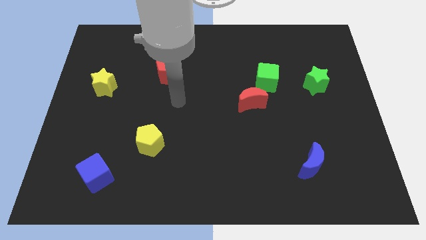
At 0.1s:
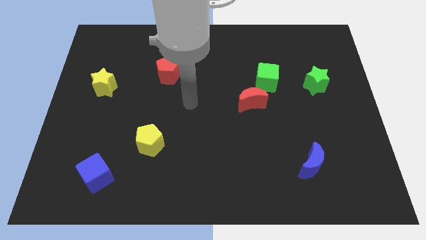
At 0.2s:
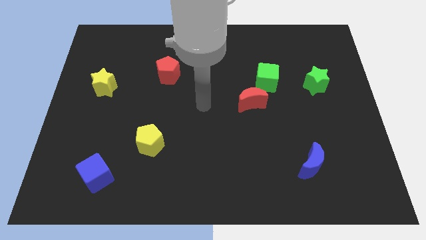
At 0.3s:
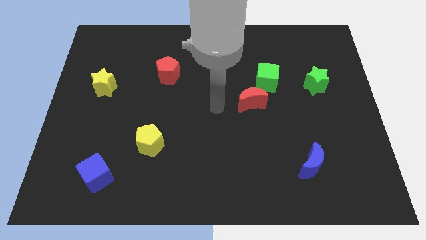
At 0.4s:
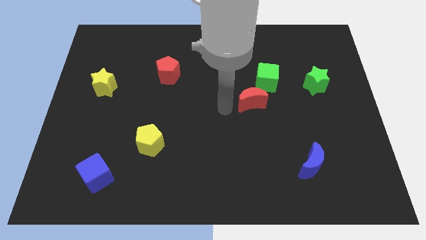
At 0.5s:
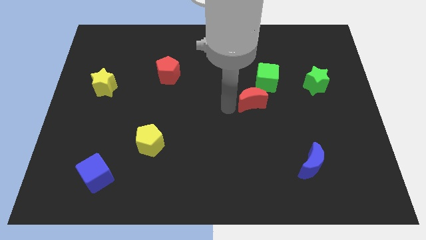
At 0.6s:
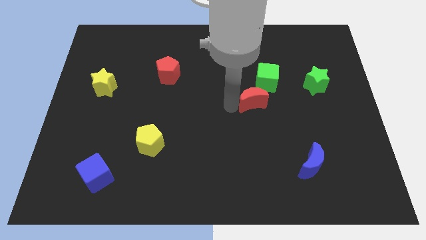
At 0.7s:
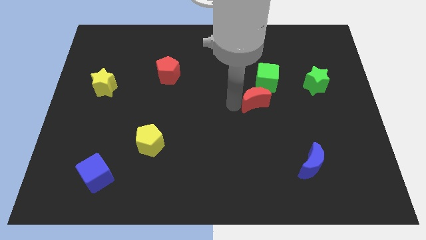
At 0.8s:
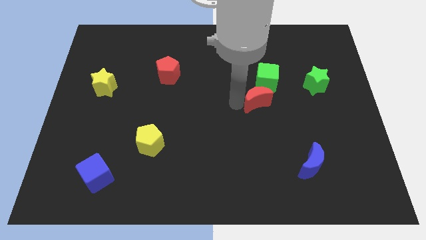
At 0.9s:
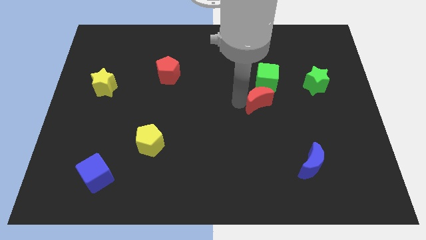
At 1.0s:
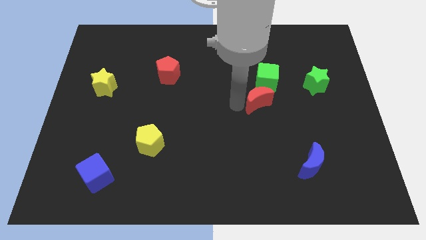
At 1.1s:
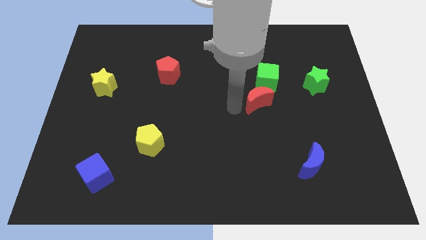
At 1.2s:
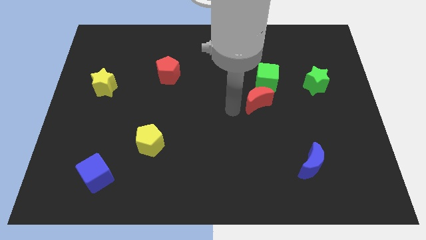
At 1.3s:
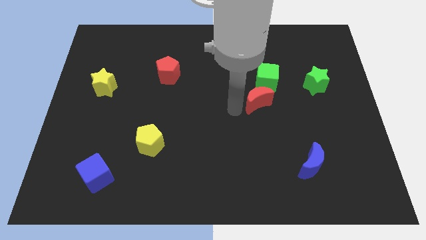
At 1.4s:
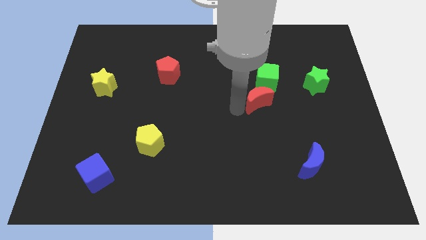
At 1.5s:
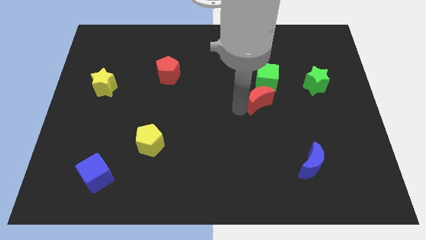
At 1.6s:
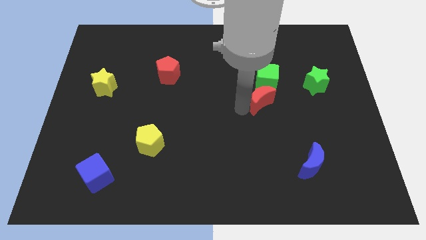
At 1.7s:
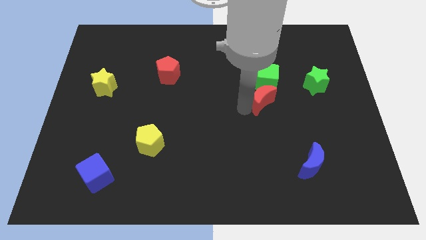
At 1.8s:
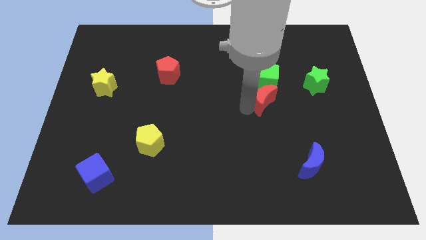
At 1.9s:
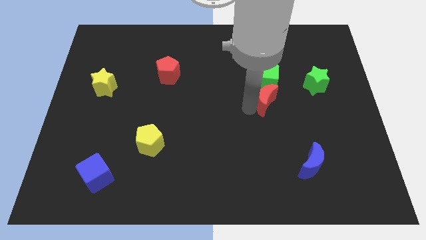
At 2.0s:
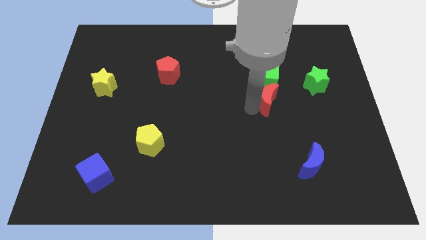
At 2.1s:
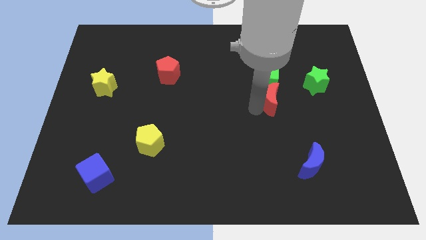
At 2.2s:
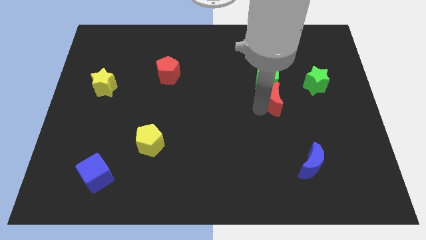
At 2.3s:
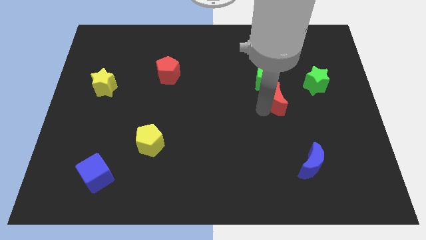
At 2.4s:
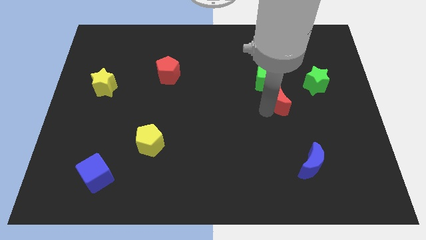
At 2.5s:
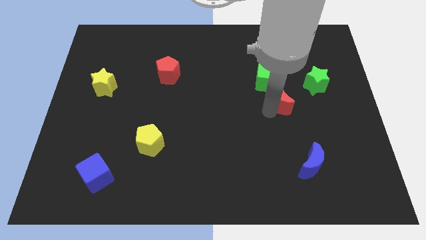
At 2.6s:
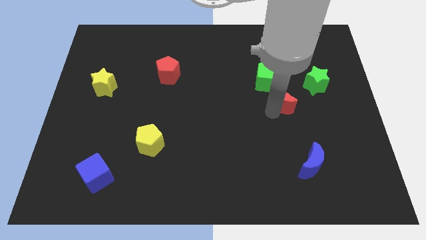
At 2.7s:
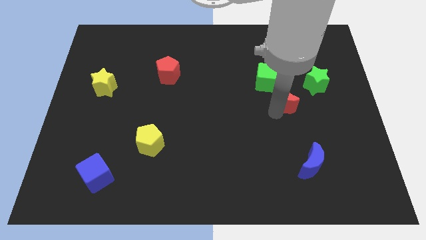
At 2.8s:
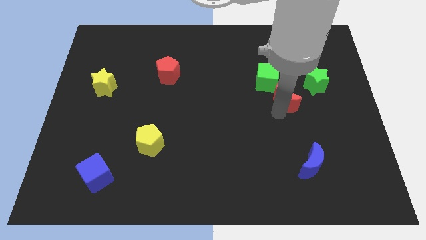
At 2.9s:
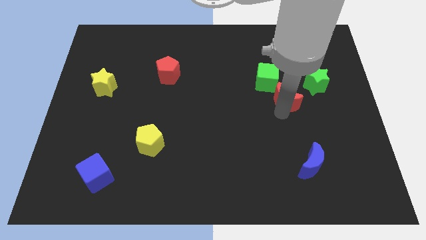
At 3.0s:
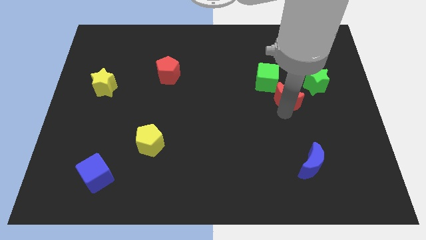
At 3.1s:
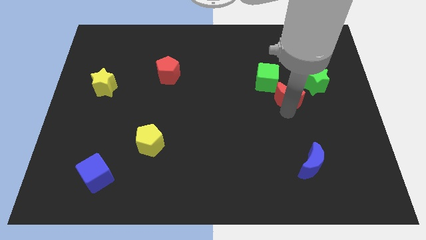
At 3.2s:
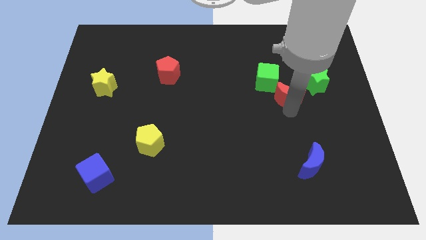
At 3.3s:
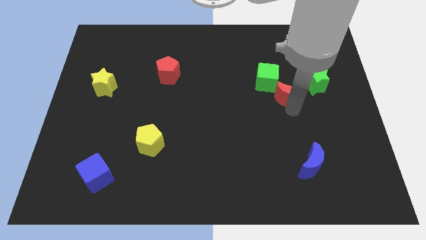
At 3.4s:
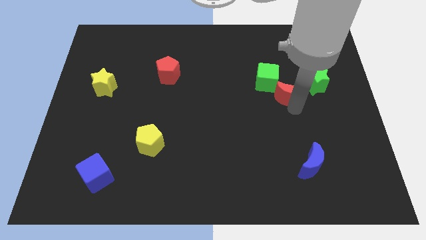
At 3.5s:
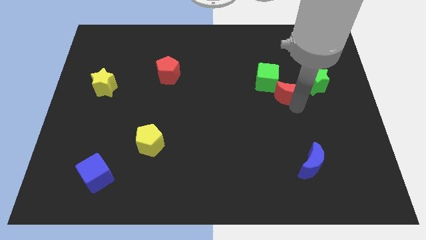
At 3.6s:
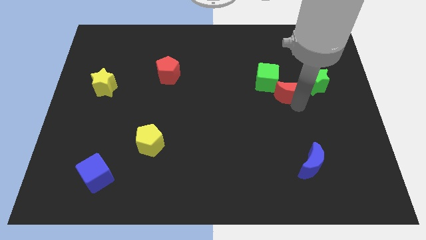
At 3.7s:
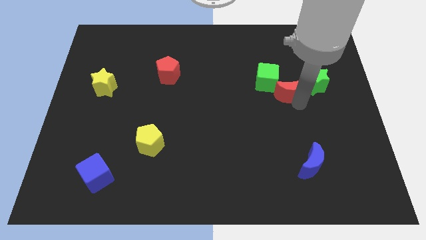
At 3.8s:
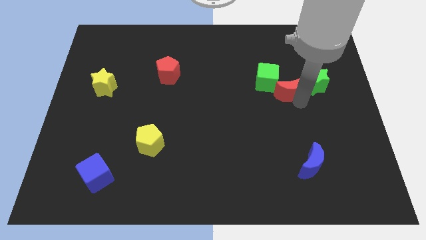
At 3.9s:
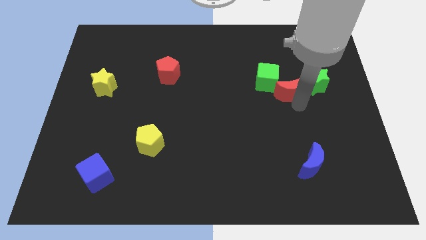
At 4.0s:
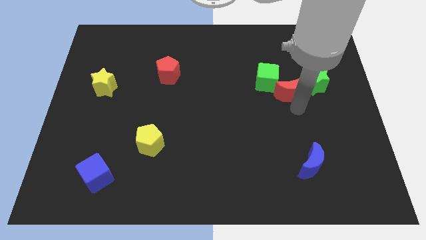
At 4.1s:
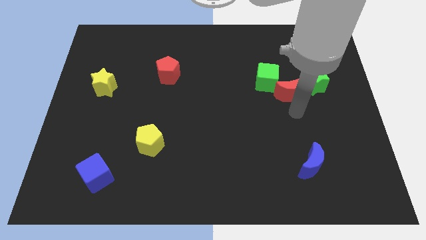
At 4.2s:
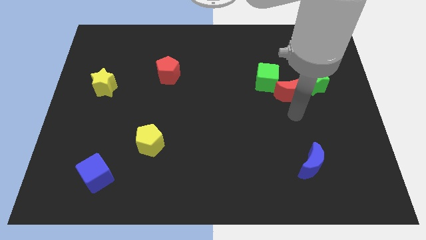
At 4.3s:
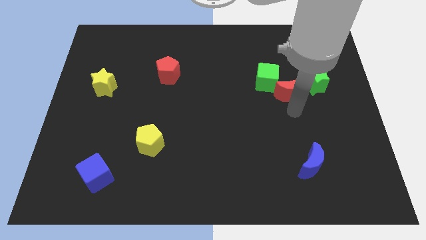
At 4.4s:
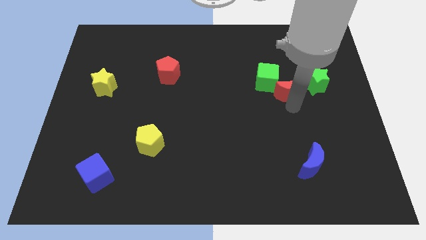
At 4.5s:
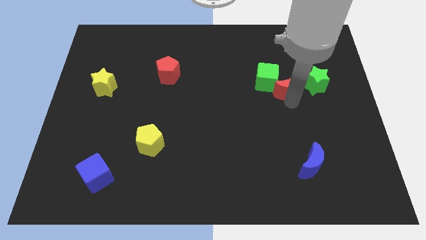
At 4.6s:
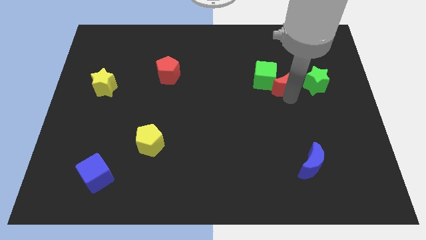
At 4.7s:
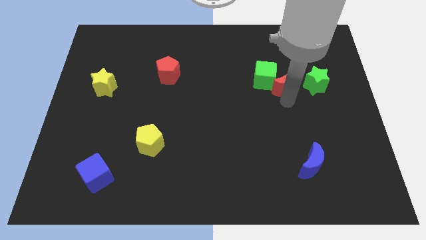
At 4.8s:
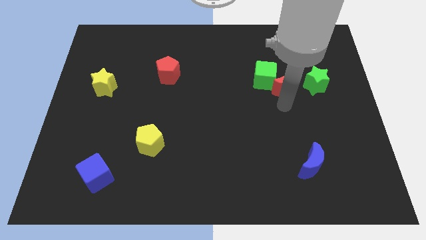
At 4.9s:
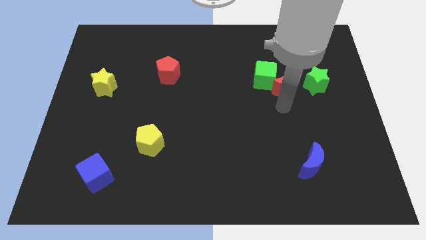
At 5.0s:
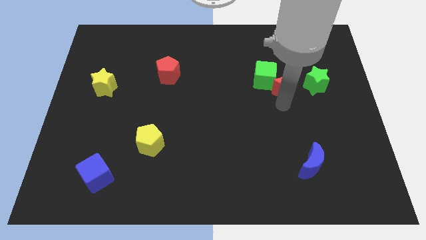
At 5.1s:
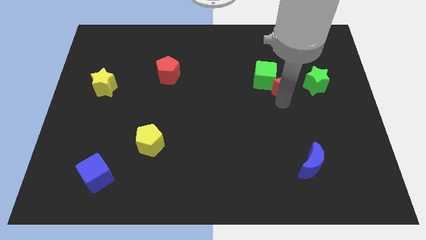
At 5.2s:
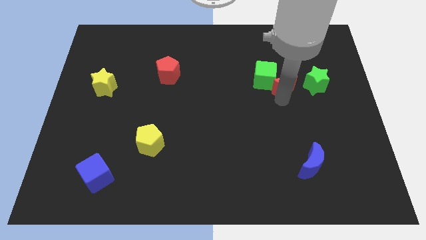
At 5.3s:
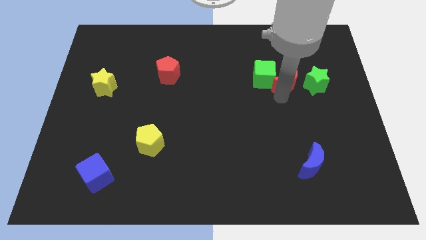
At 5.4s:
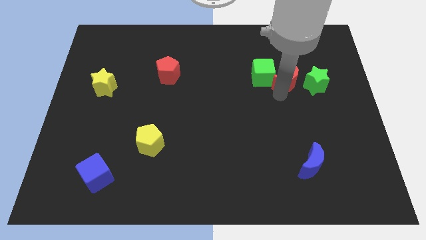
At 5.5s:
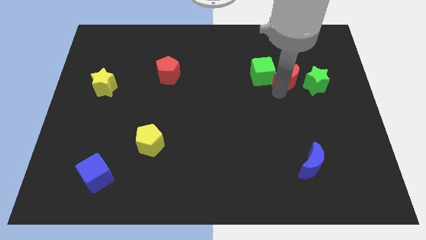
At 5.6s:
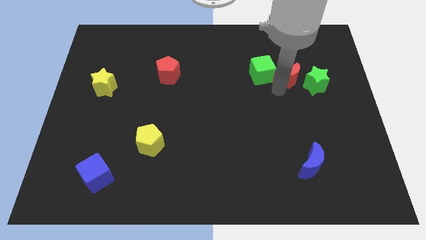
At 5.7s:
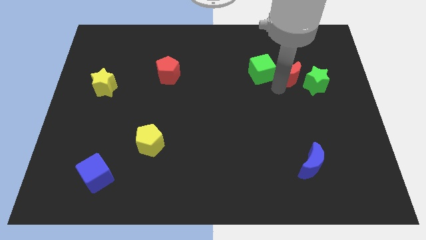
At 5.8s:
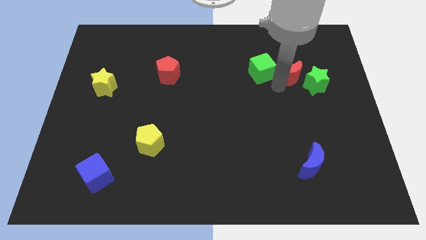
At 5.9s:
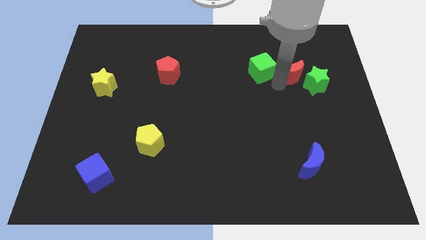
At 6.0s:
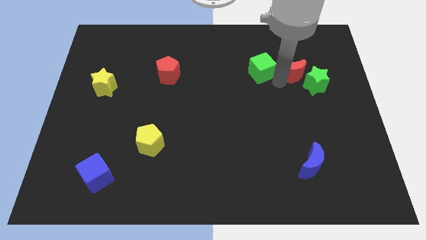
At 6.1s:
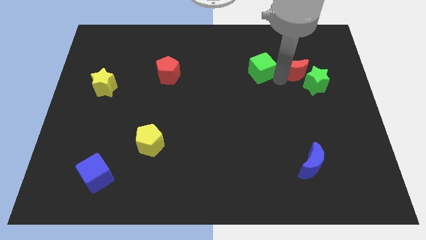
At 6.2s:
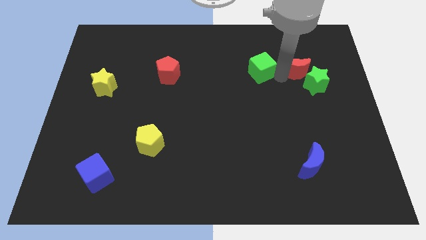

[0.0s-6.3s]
slide the red moon above the green star

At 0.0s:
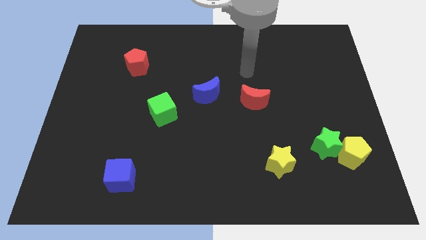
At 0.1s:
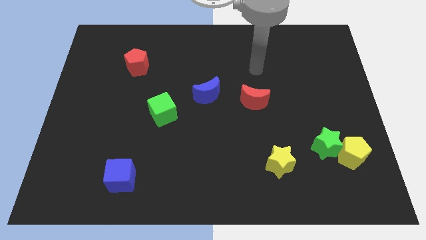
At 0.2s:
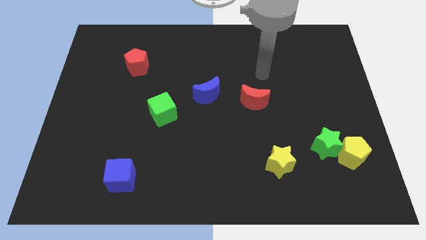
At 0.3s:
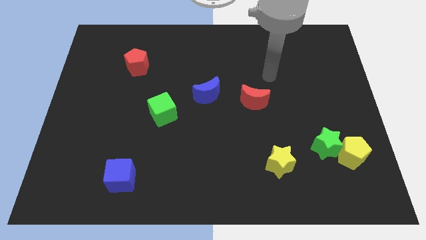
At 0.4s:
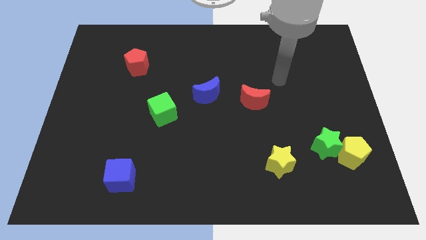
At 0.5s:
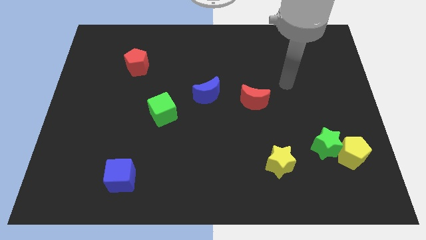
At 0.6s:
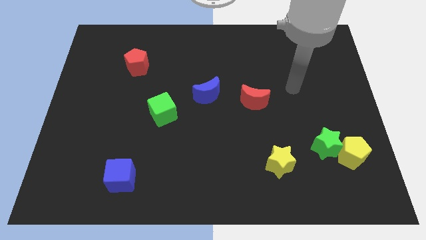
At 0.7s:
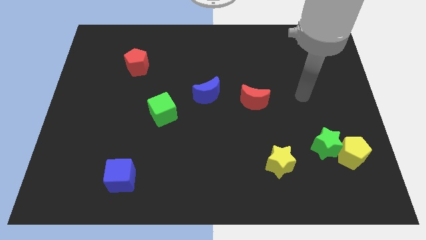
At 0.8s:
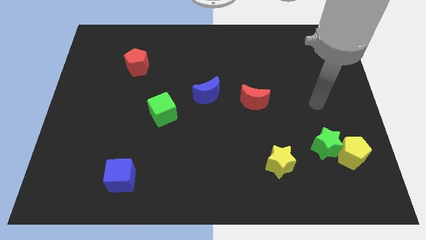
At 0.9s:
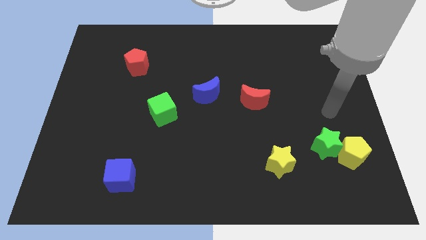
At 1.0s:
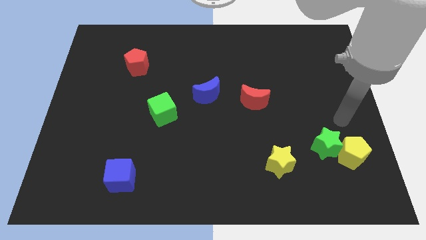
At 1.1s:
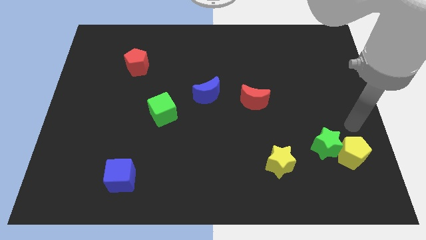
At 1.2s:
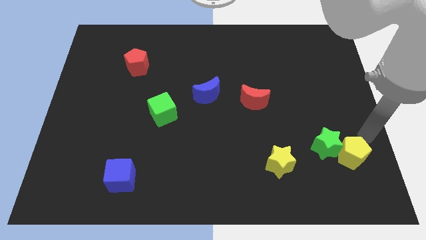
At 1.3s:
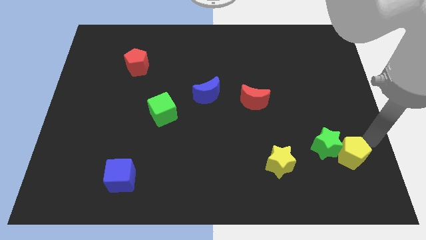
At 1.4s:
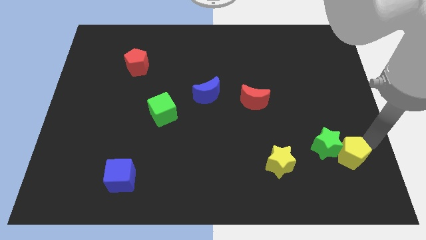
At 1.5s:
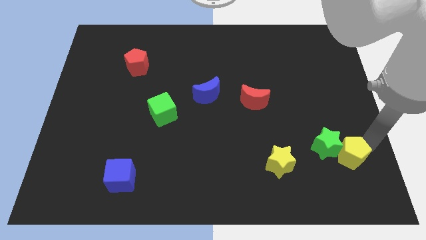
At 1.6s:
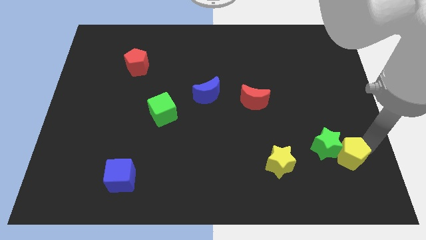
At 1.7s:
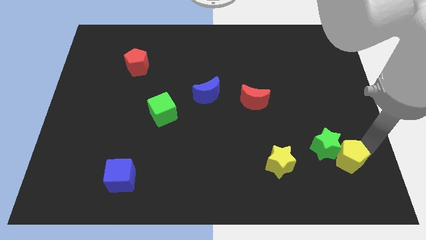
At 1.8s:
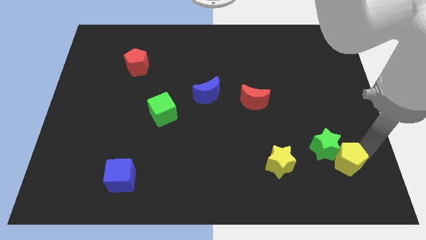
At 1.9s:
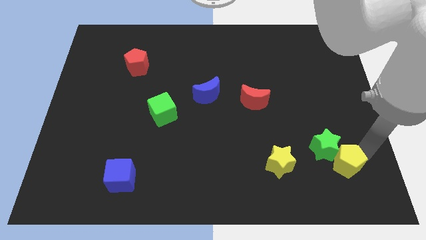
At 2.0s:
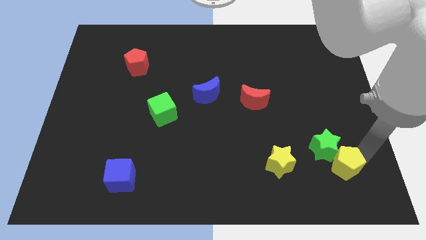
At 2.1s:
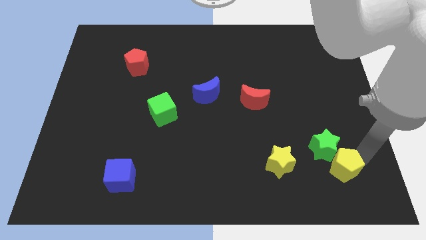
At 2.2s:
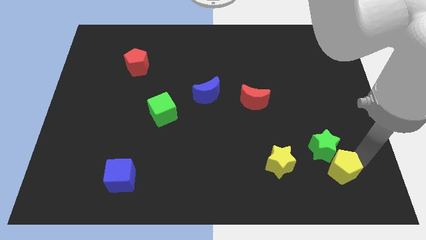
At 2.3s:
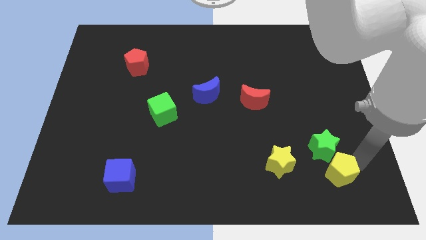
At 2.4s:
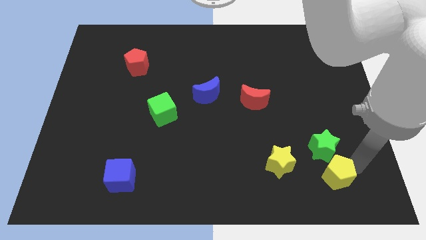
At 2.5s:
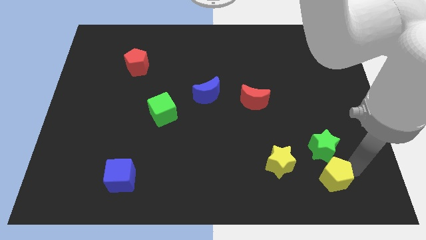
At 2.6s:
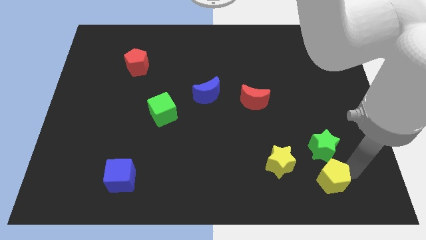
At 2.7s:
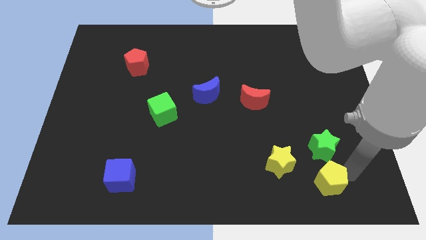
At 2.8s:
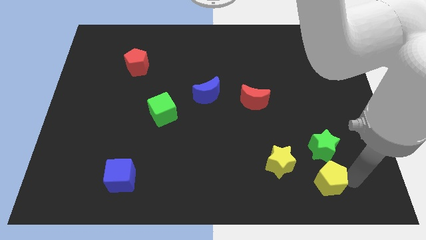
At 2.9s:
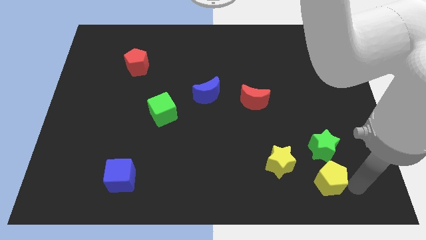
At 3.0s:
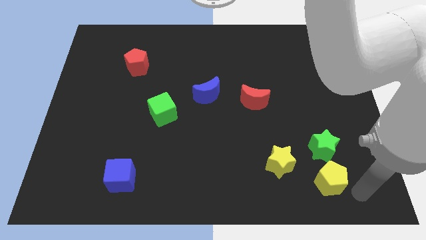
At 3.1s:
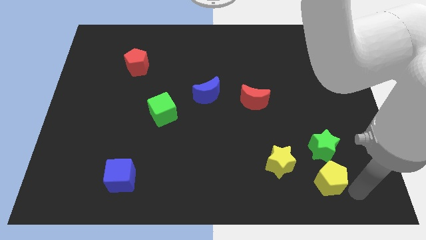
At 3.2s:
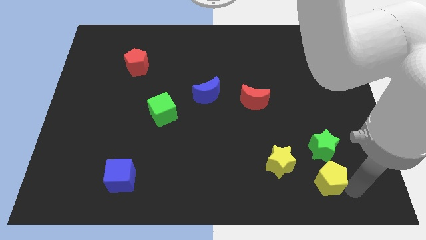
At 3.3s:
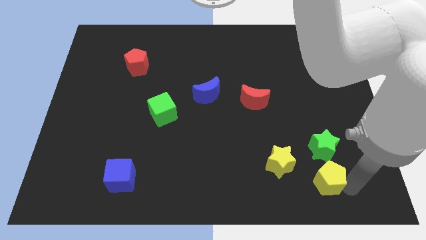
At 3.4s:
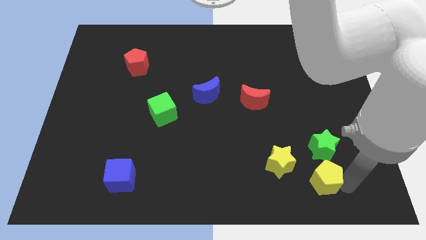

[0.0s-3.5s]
move the yellow pentagon diagonally down and to the left of the green star
